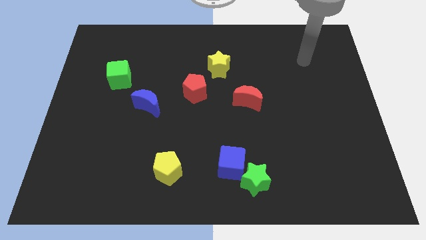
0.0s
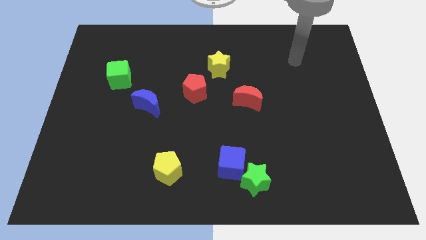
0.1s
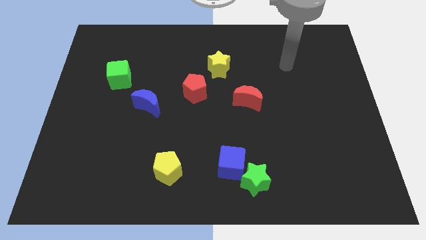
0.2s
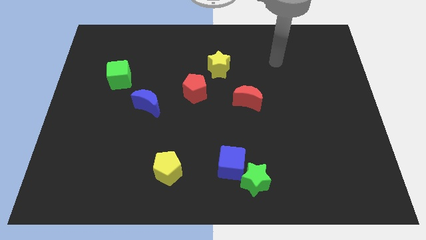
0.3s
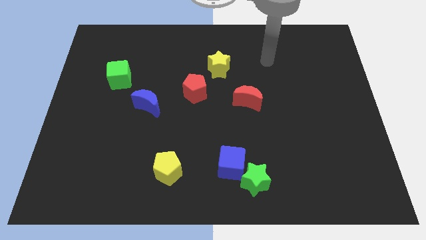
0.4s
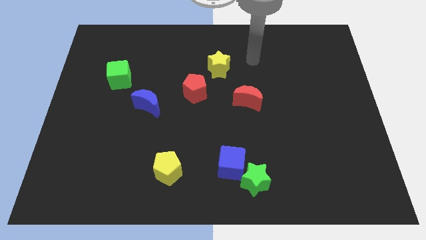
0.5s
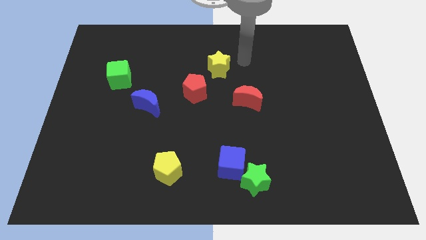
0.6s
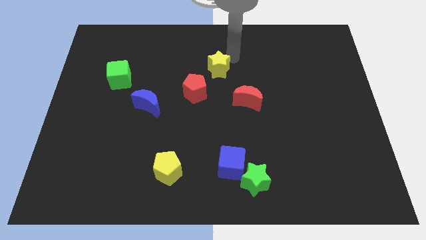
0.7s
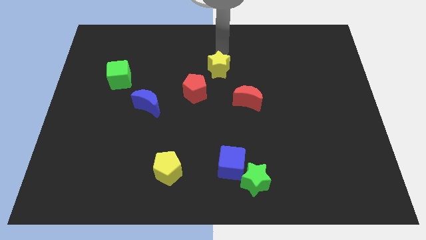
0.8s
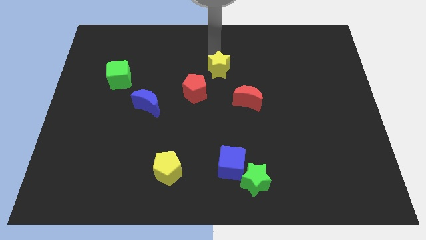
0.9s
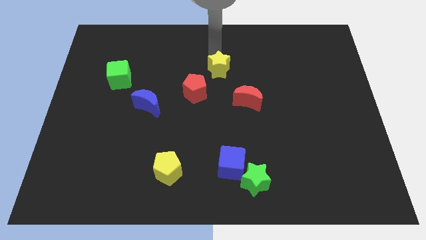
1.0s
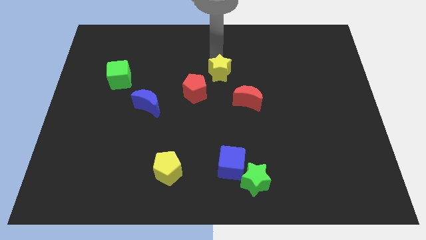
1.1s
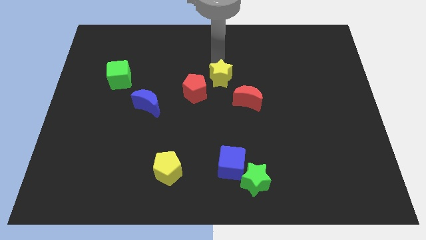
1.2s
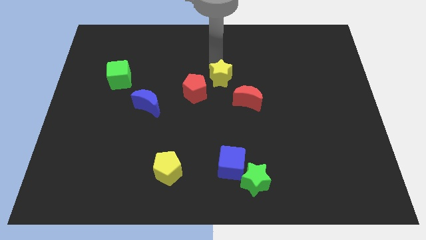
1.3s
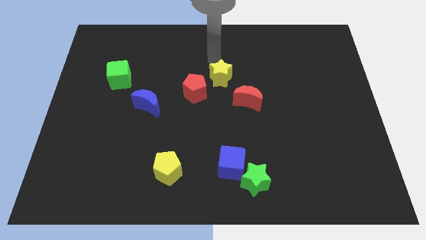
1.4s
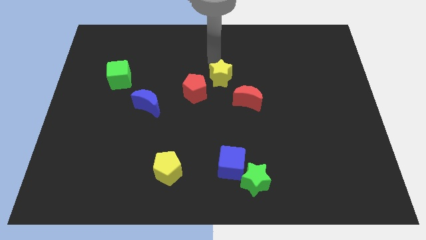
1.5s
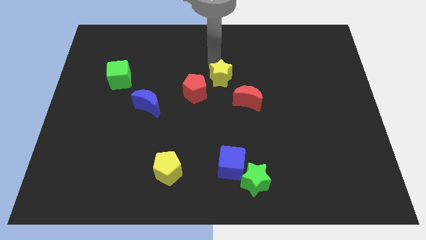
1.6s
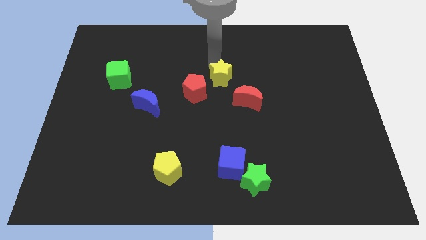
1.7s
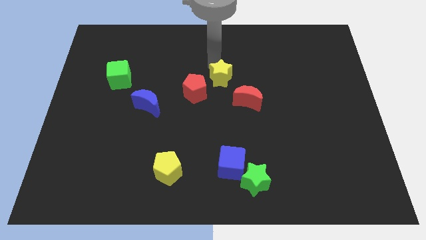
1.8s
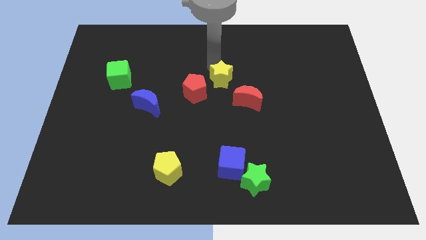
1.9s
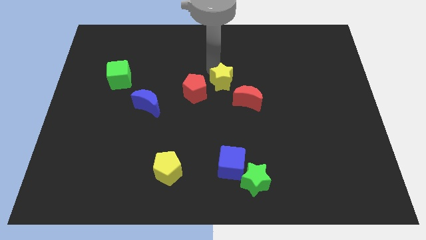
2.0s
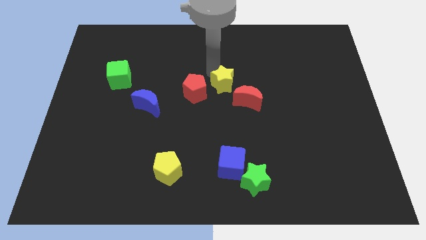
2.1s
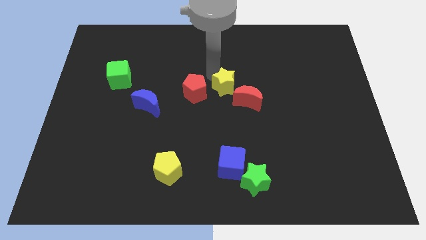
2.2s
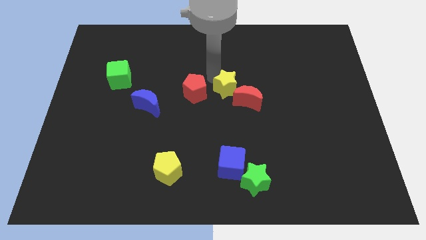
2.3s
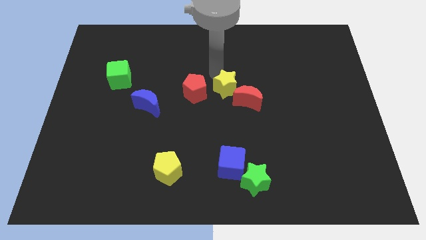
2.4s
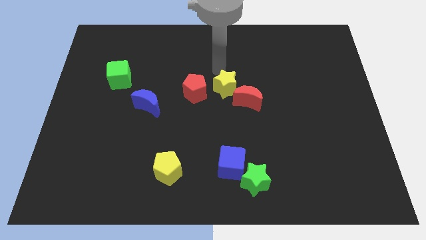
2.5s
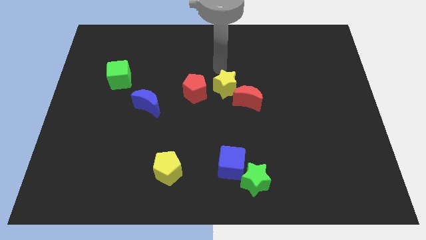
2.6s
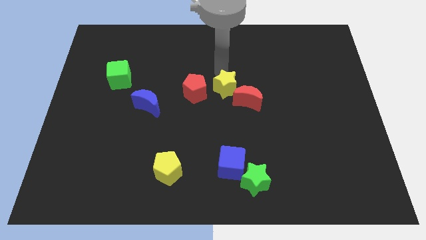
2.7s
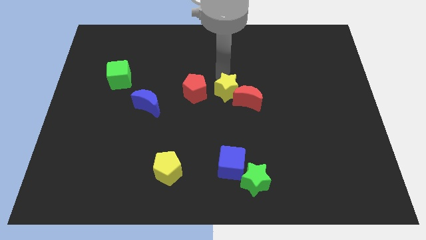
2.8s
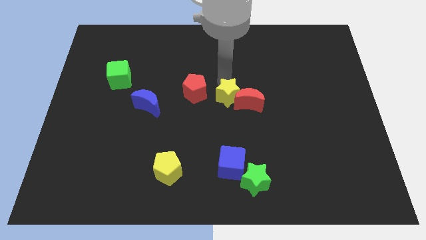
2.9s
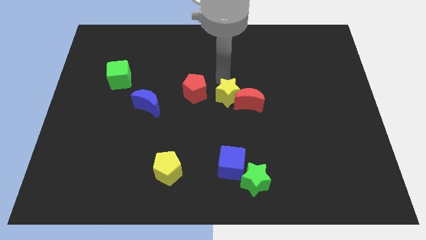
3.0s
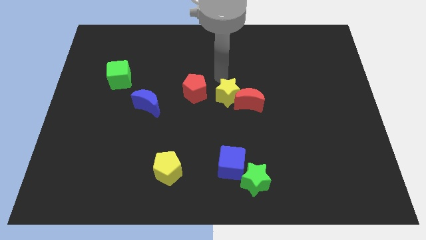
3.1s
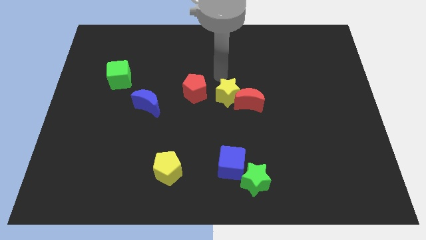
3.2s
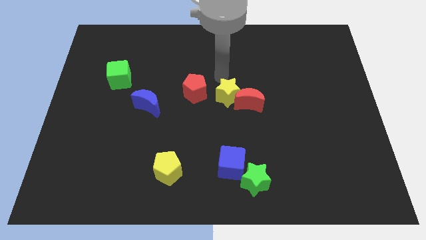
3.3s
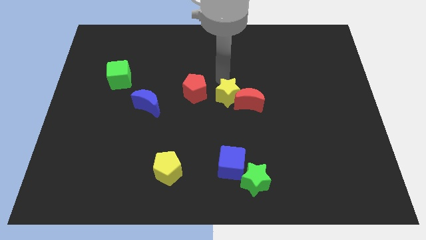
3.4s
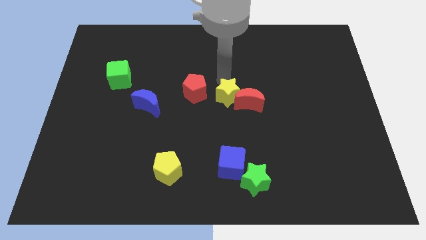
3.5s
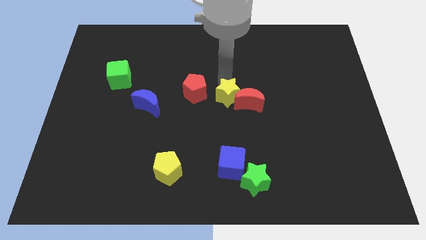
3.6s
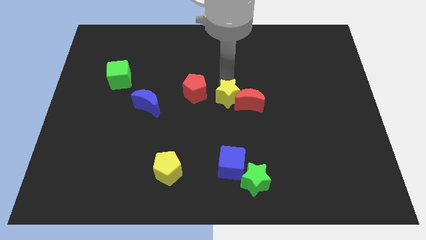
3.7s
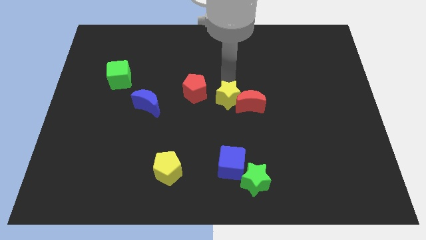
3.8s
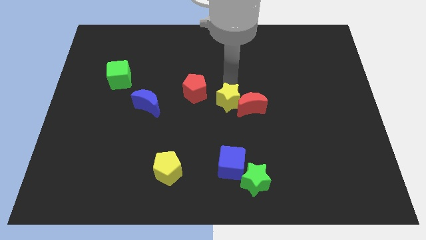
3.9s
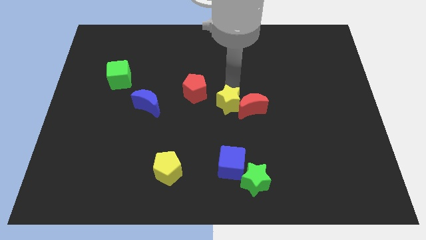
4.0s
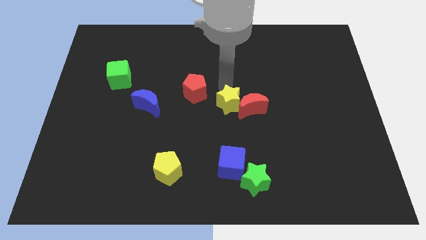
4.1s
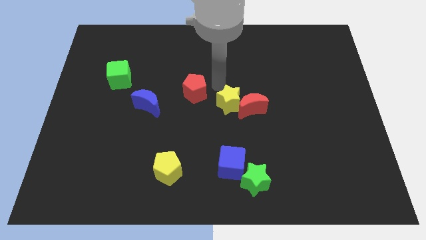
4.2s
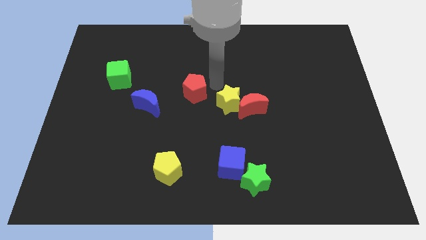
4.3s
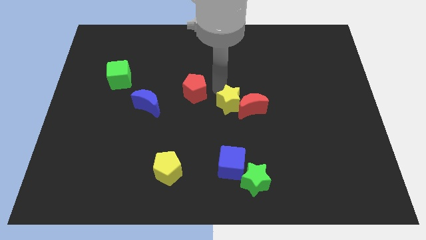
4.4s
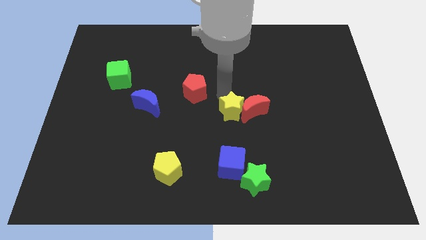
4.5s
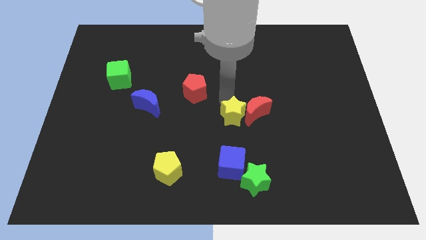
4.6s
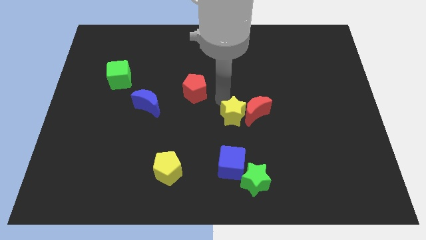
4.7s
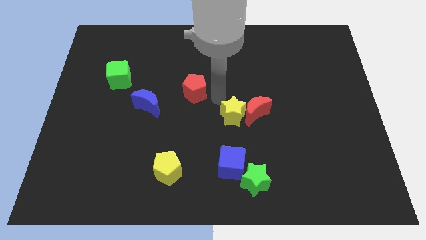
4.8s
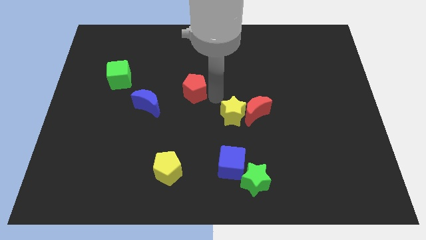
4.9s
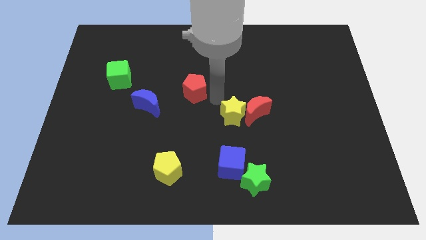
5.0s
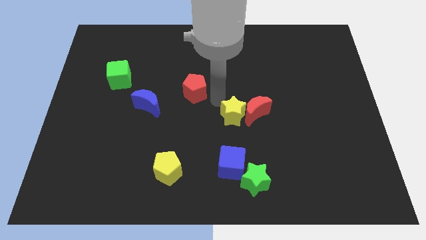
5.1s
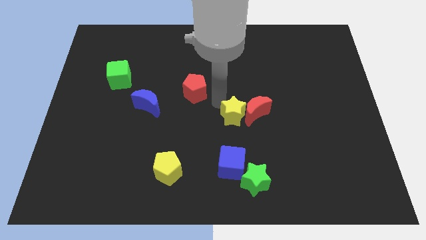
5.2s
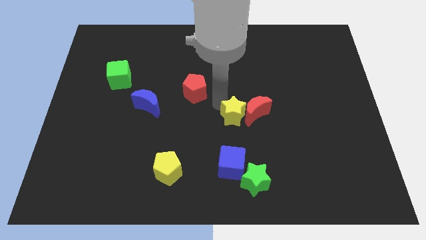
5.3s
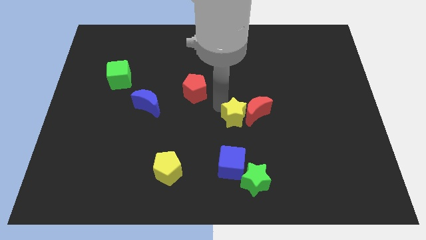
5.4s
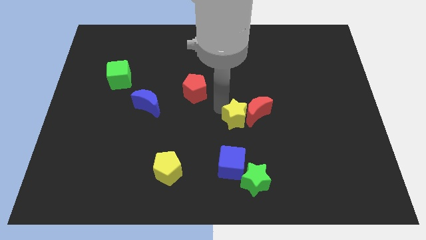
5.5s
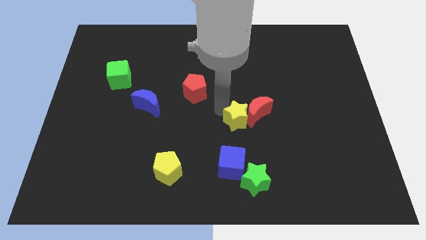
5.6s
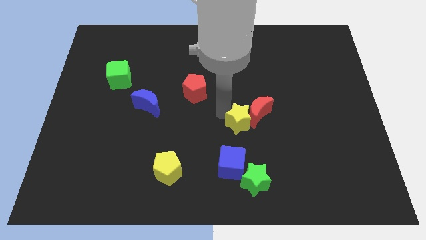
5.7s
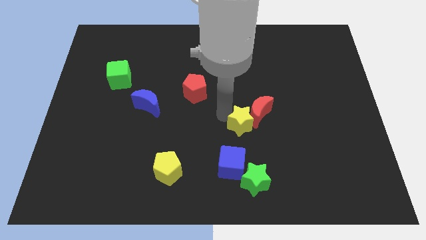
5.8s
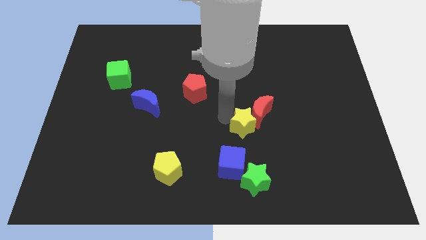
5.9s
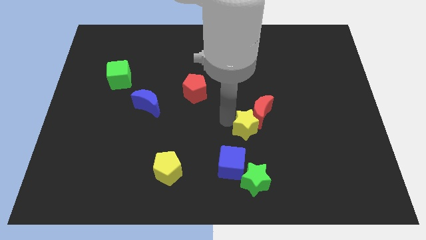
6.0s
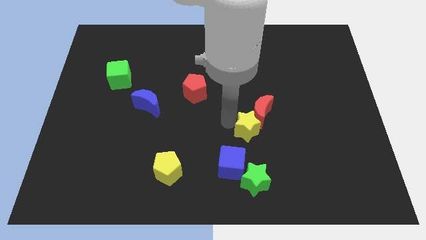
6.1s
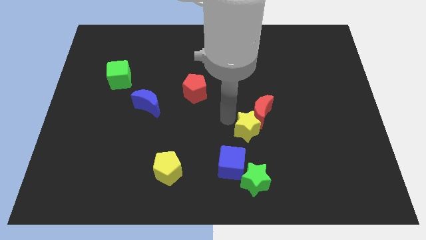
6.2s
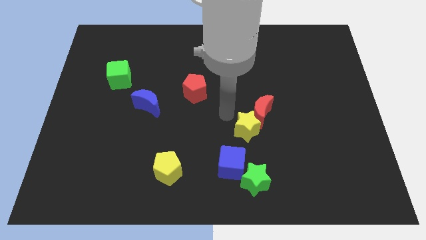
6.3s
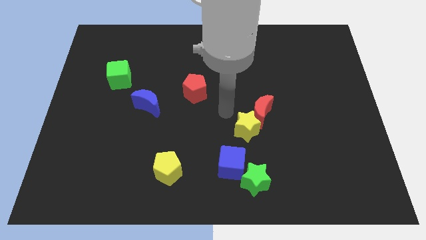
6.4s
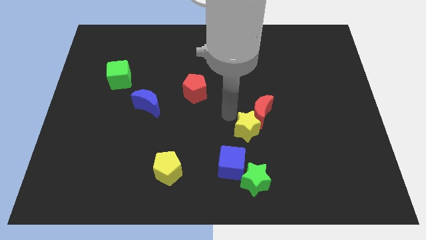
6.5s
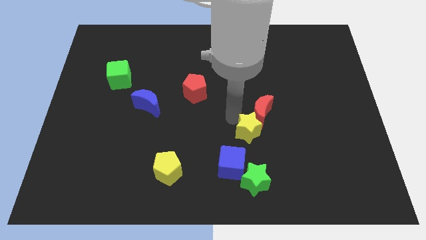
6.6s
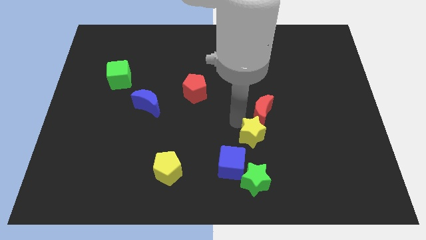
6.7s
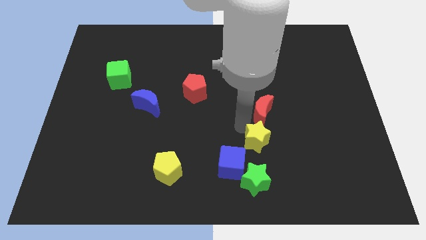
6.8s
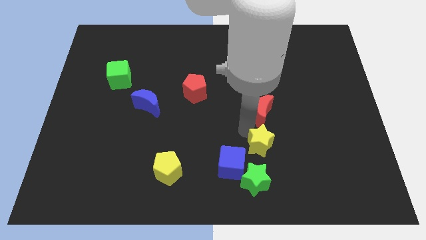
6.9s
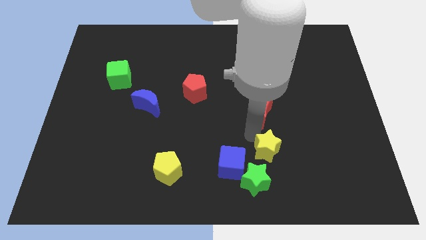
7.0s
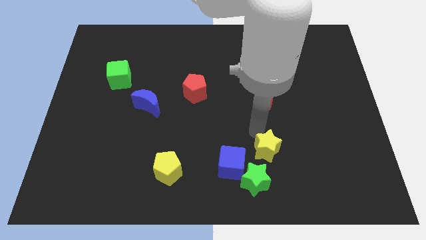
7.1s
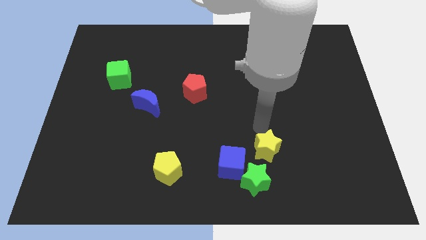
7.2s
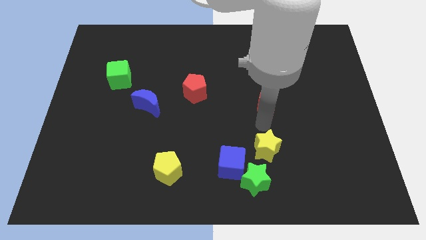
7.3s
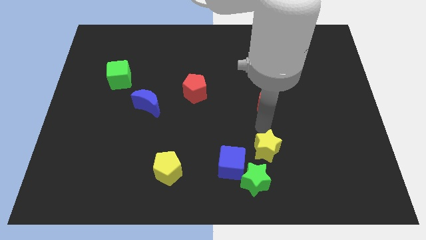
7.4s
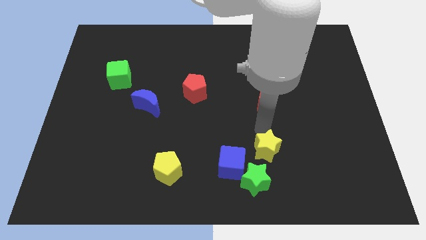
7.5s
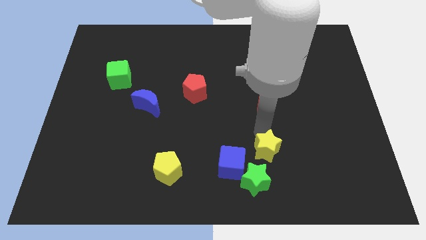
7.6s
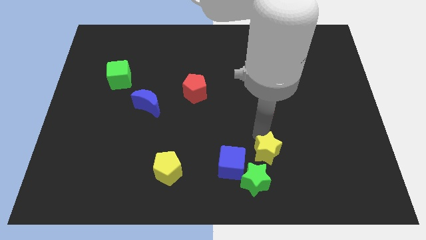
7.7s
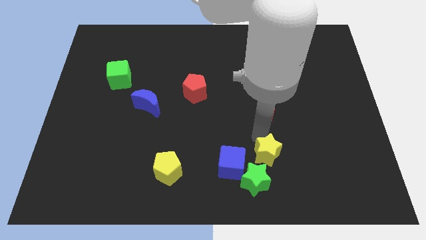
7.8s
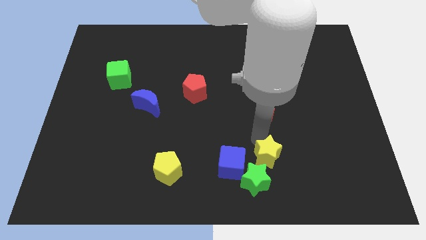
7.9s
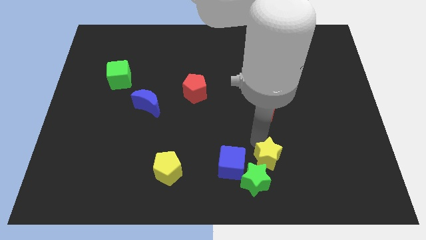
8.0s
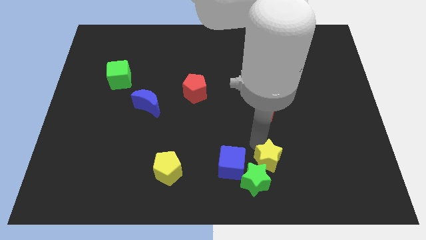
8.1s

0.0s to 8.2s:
push the yellow star to the green star
